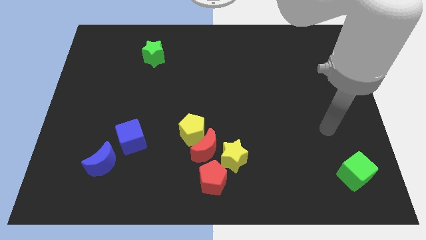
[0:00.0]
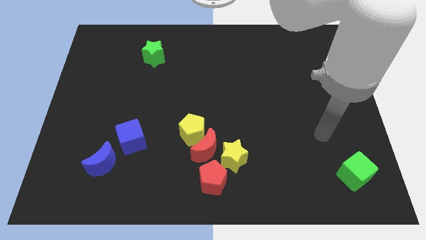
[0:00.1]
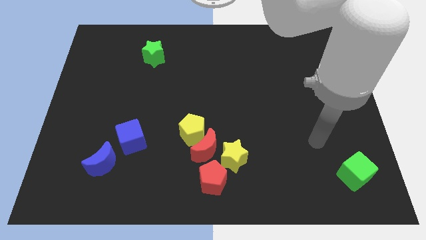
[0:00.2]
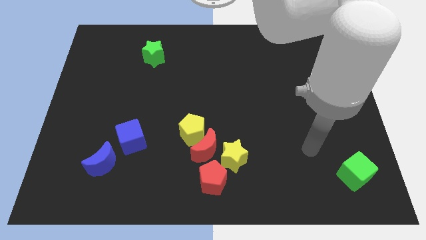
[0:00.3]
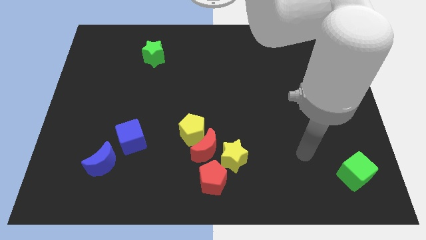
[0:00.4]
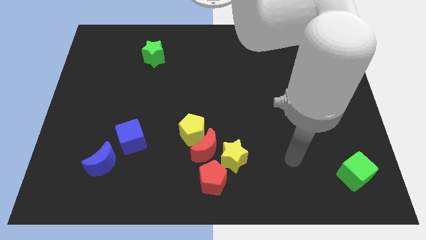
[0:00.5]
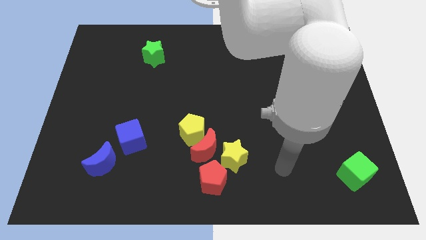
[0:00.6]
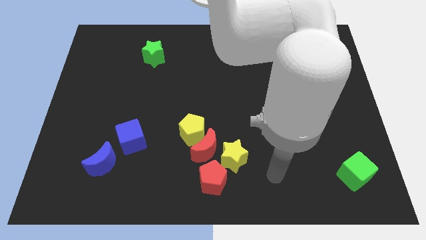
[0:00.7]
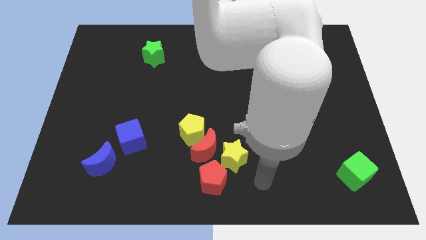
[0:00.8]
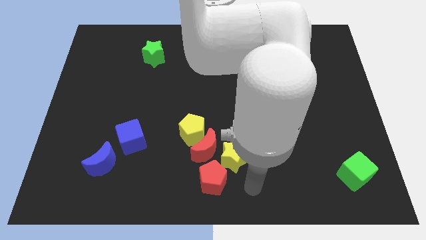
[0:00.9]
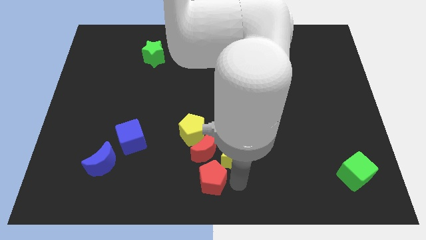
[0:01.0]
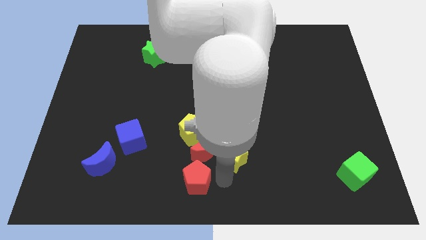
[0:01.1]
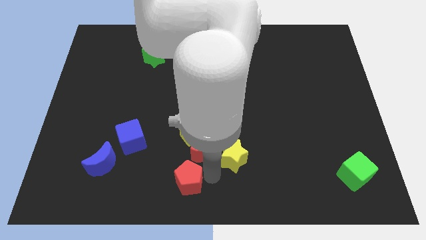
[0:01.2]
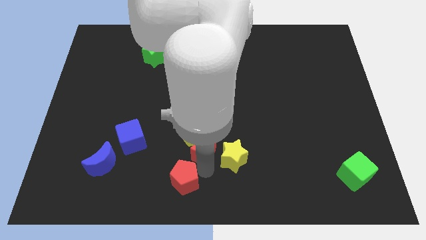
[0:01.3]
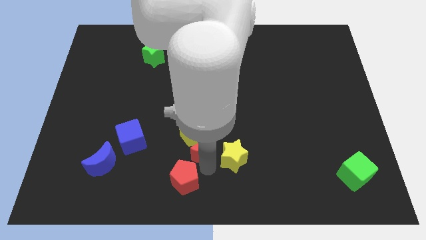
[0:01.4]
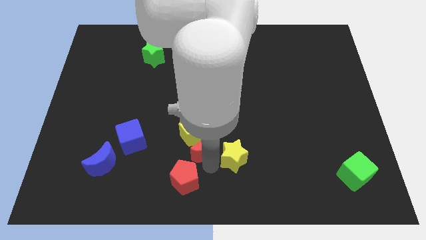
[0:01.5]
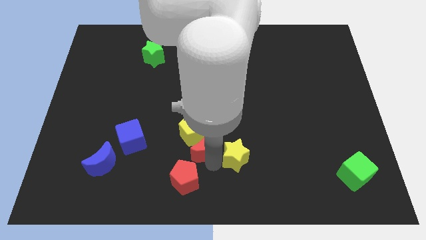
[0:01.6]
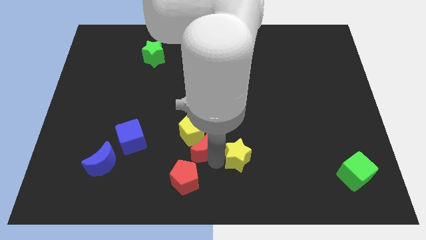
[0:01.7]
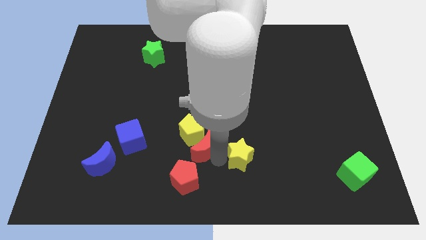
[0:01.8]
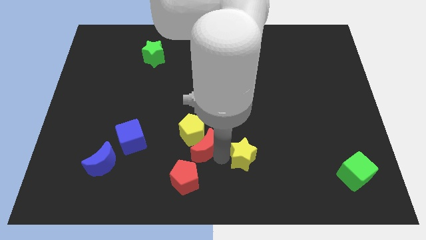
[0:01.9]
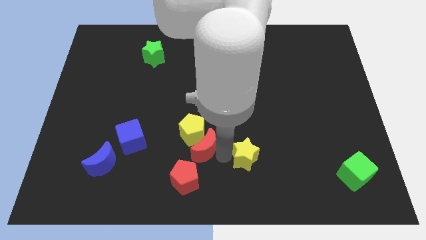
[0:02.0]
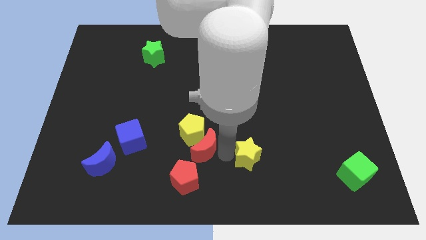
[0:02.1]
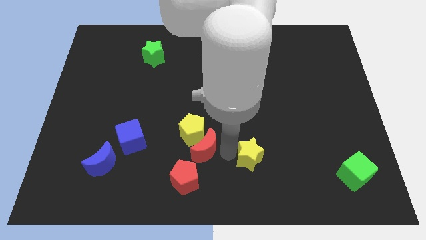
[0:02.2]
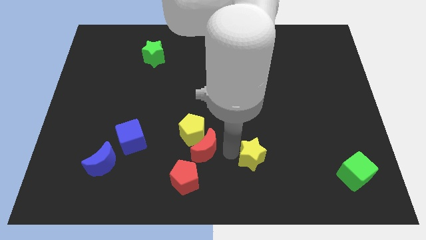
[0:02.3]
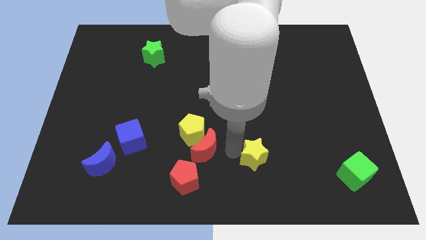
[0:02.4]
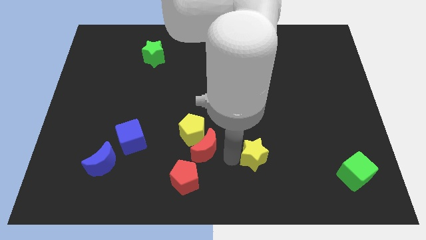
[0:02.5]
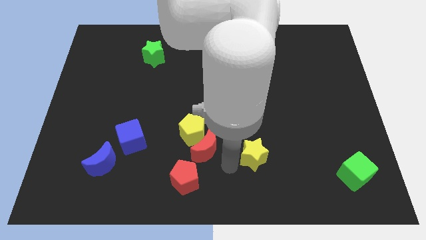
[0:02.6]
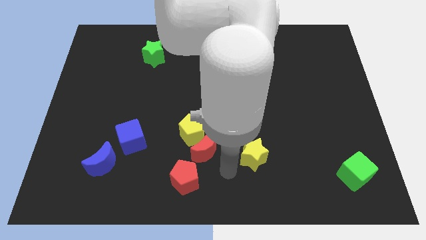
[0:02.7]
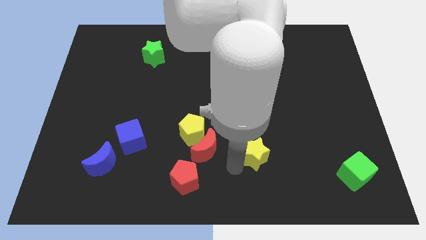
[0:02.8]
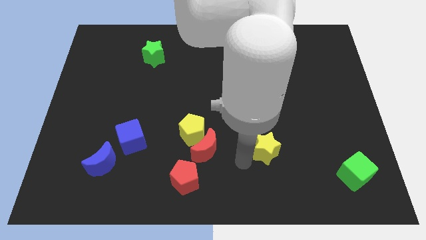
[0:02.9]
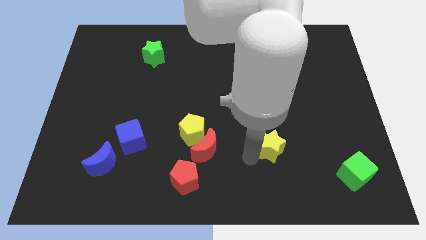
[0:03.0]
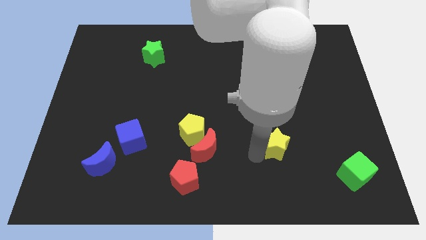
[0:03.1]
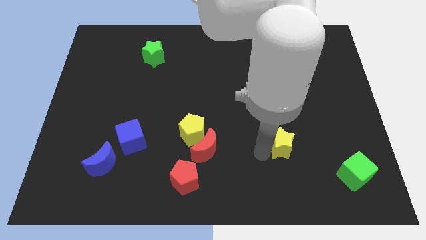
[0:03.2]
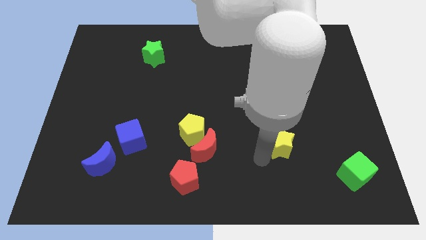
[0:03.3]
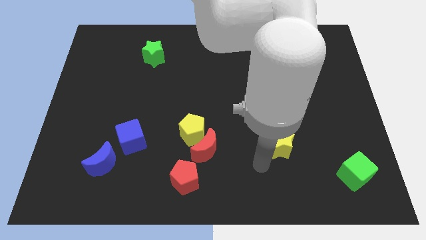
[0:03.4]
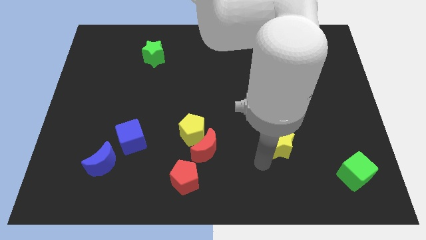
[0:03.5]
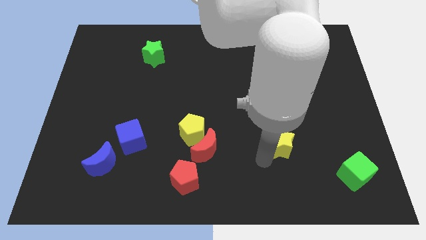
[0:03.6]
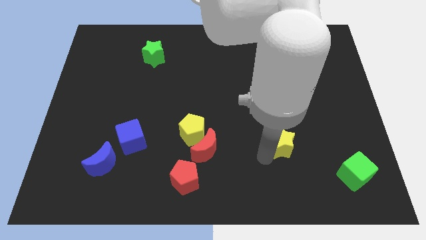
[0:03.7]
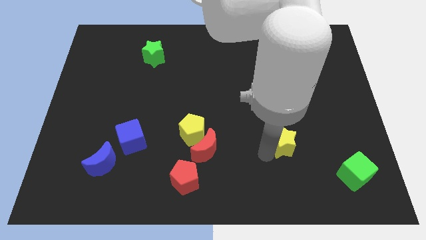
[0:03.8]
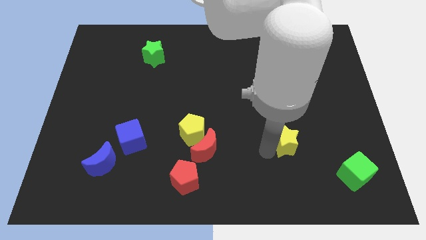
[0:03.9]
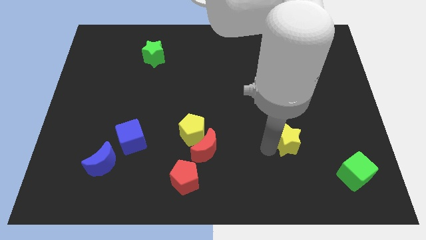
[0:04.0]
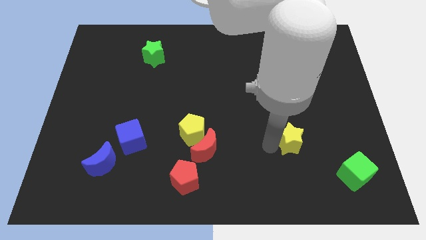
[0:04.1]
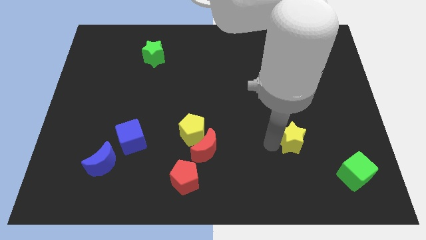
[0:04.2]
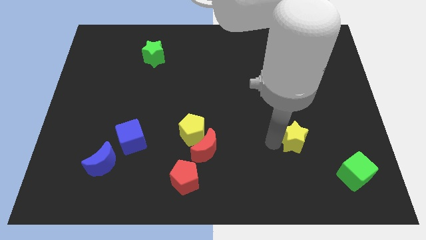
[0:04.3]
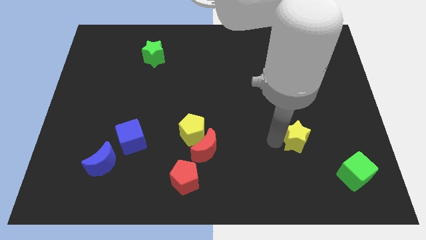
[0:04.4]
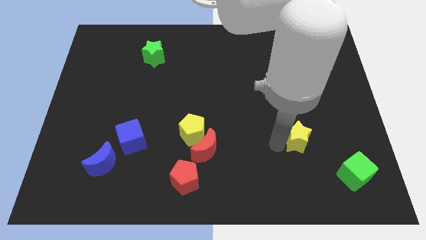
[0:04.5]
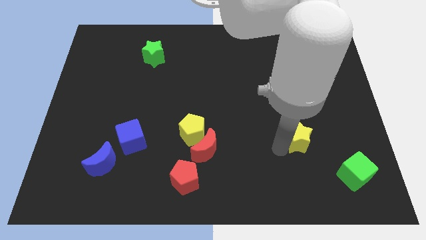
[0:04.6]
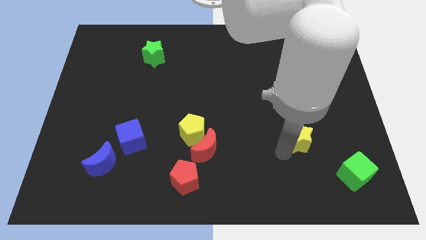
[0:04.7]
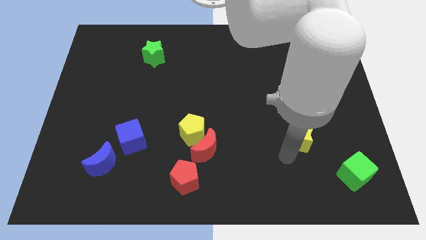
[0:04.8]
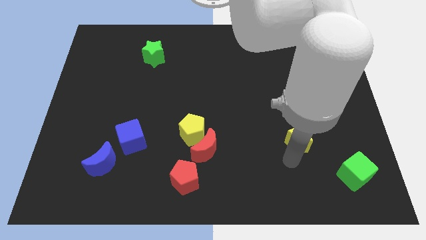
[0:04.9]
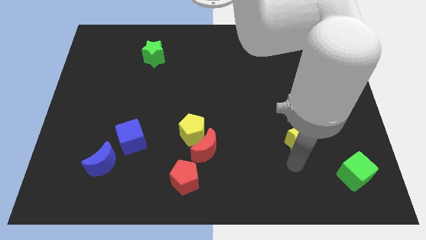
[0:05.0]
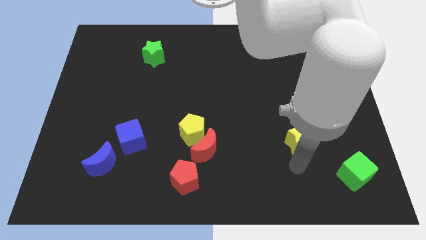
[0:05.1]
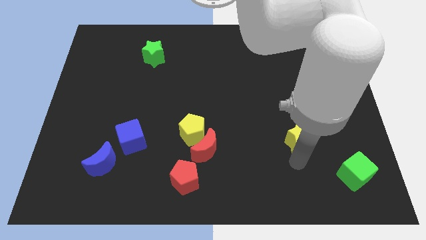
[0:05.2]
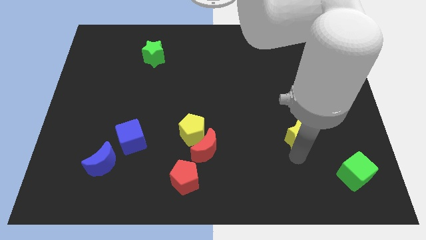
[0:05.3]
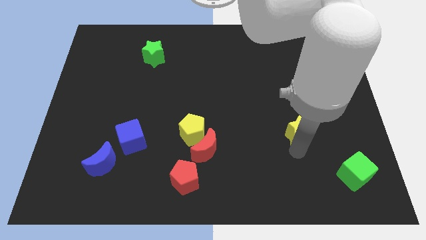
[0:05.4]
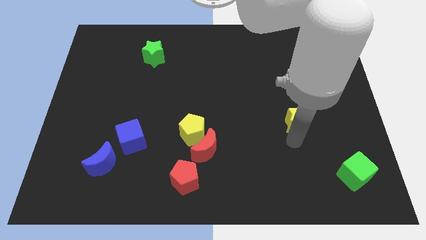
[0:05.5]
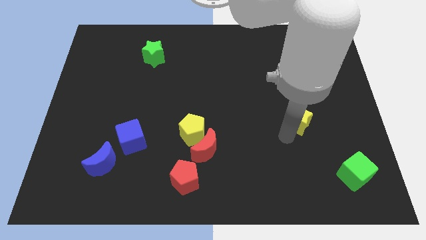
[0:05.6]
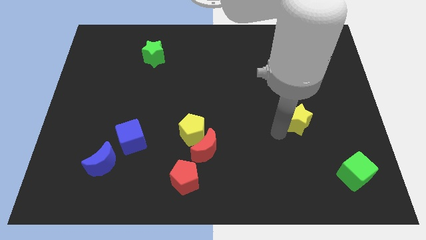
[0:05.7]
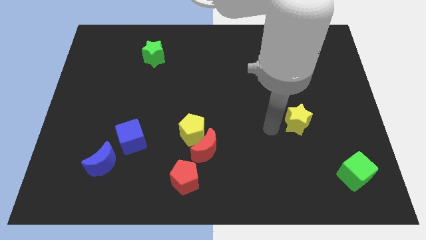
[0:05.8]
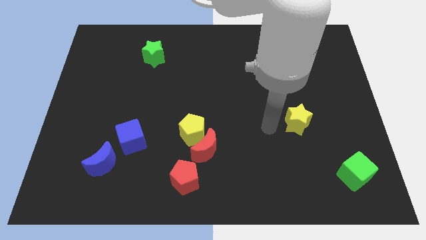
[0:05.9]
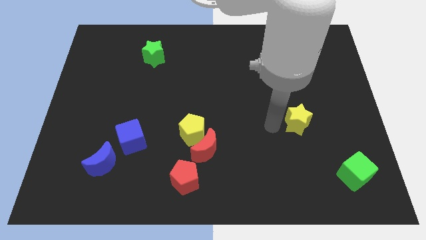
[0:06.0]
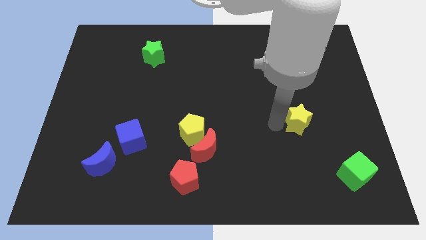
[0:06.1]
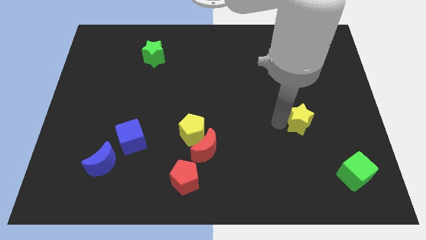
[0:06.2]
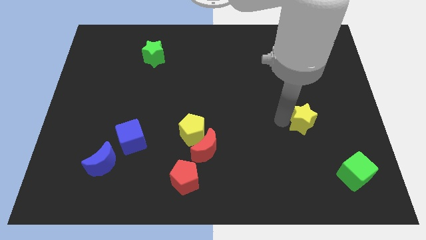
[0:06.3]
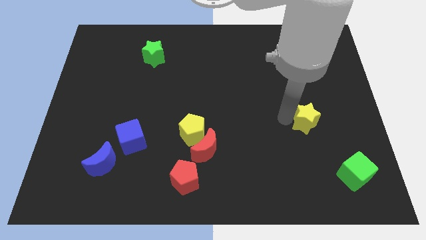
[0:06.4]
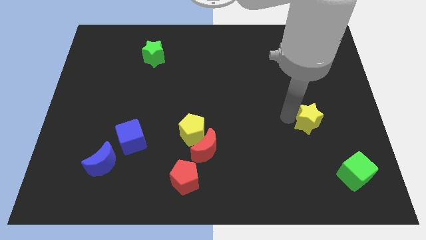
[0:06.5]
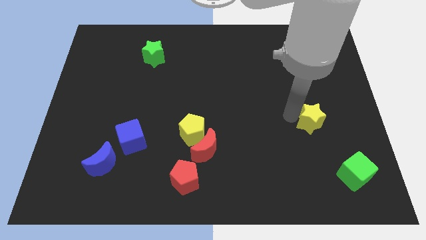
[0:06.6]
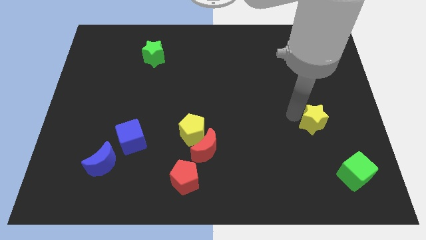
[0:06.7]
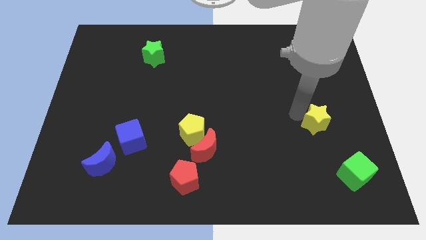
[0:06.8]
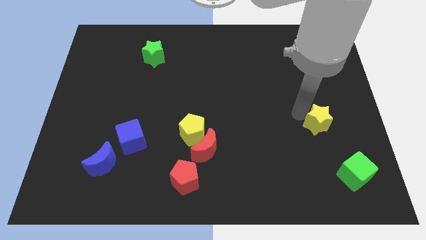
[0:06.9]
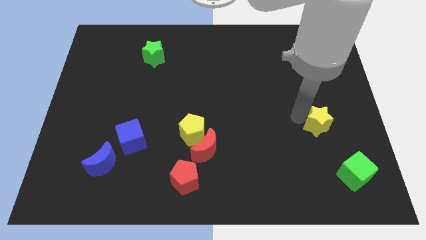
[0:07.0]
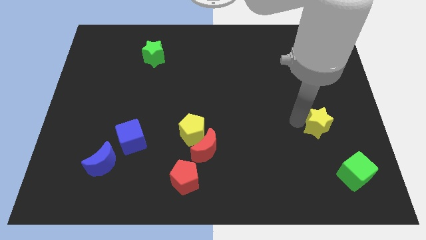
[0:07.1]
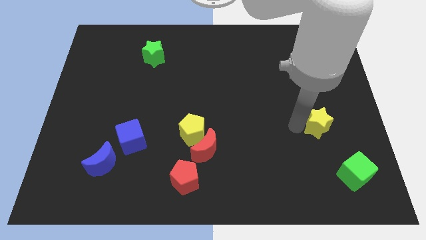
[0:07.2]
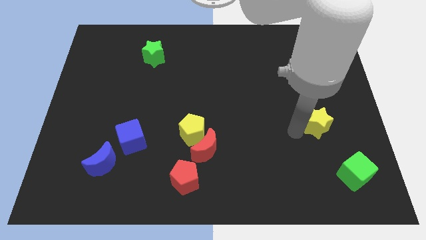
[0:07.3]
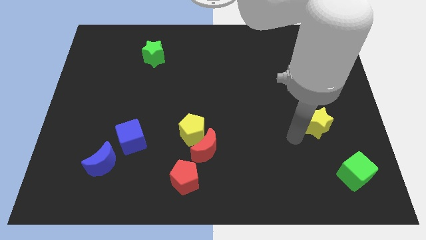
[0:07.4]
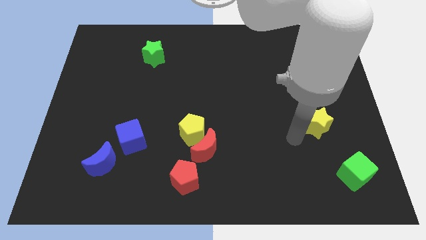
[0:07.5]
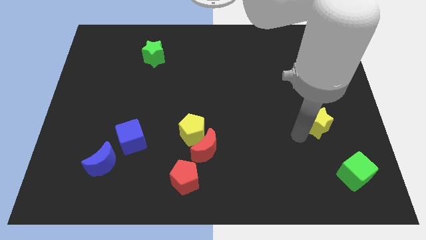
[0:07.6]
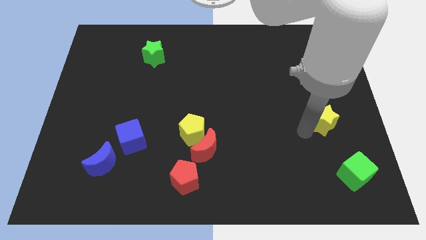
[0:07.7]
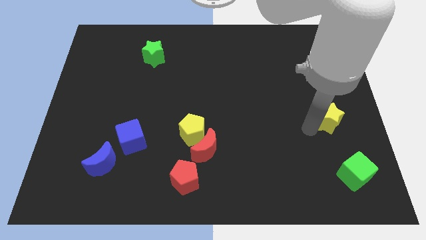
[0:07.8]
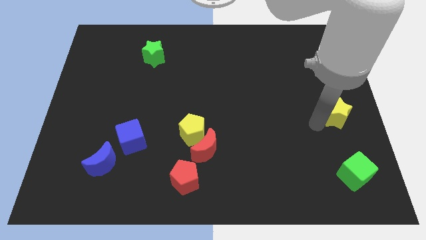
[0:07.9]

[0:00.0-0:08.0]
slide the yellow star to the center right
